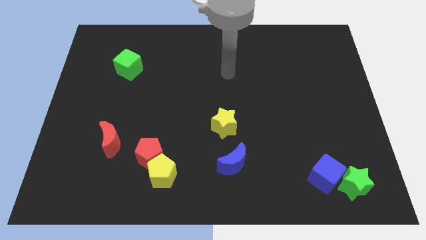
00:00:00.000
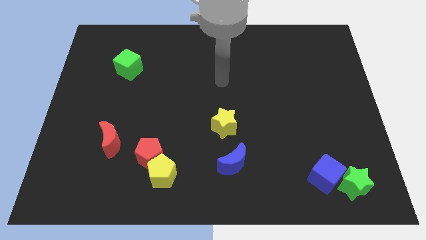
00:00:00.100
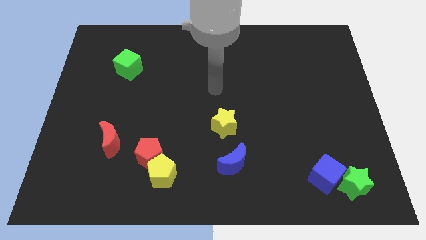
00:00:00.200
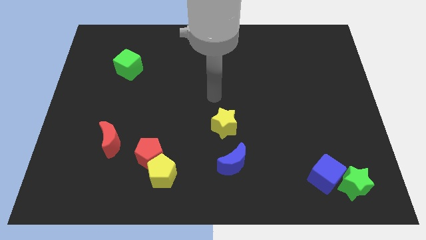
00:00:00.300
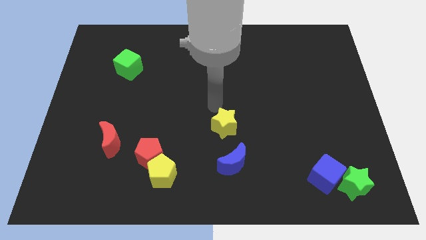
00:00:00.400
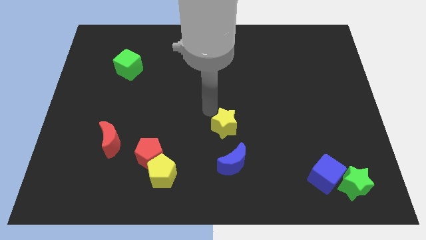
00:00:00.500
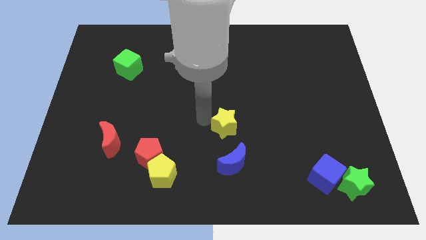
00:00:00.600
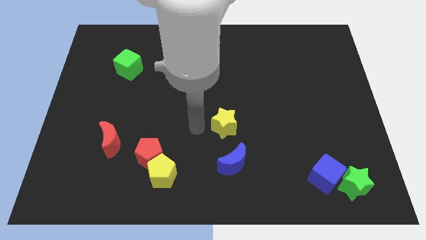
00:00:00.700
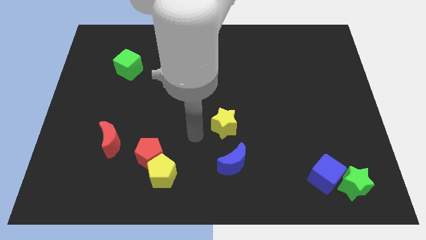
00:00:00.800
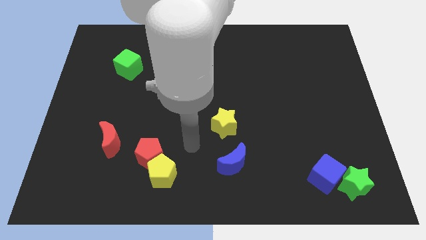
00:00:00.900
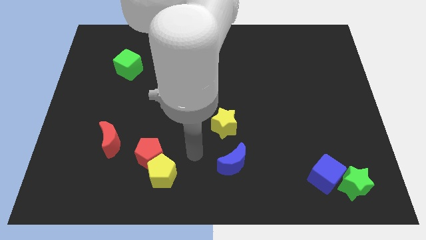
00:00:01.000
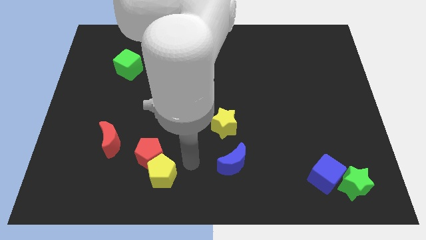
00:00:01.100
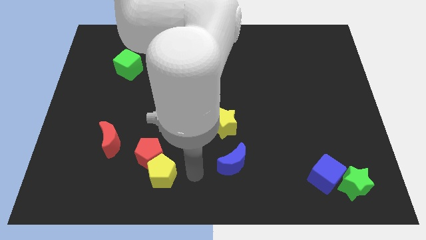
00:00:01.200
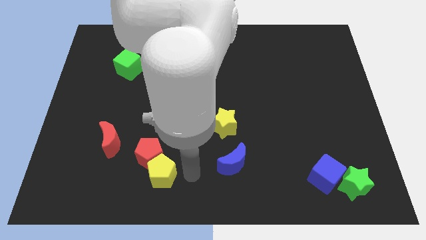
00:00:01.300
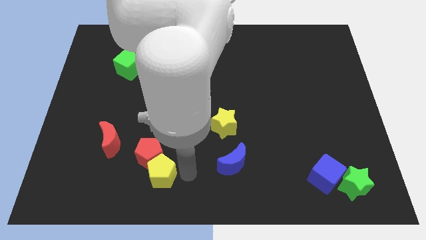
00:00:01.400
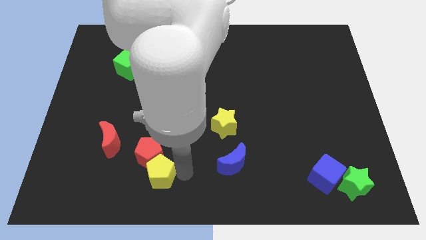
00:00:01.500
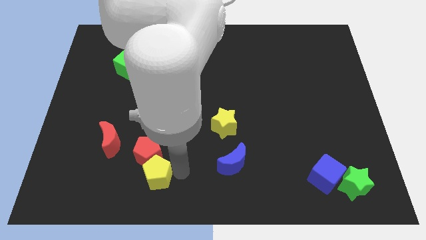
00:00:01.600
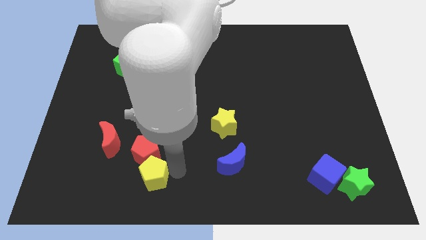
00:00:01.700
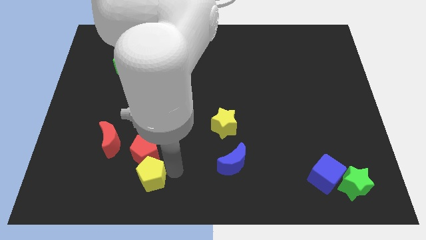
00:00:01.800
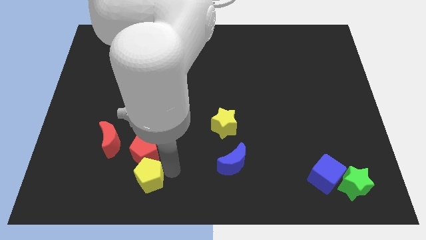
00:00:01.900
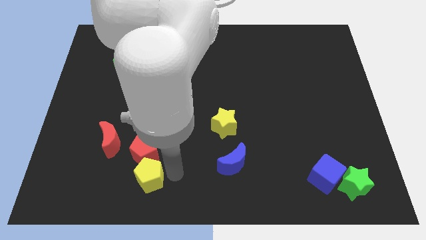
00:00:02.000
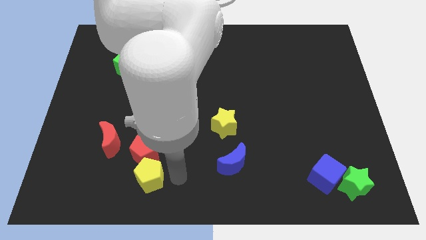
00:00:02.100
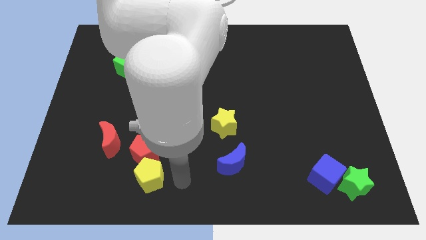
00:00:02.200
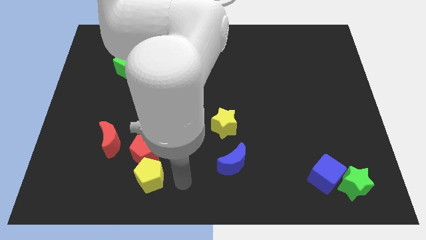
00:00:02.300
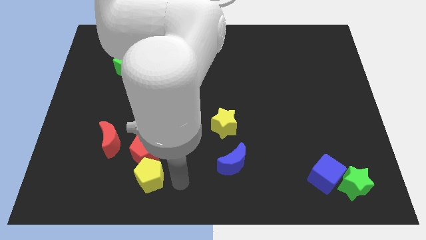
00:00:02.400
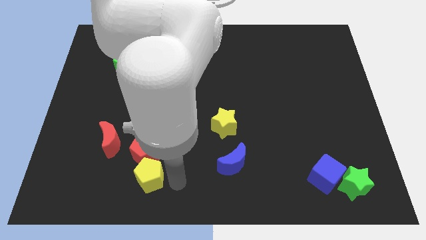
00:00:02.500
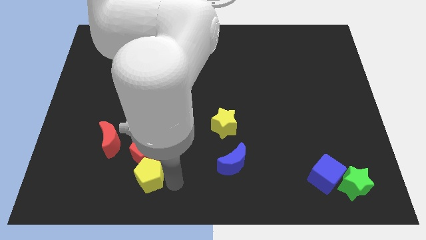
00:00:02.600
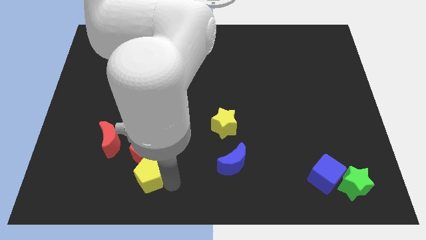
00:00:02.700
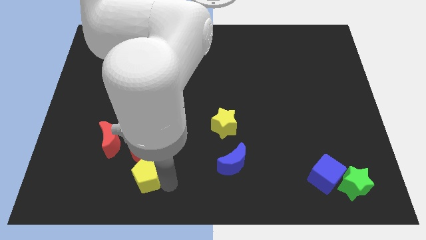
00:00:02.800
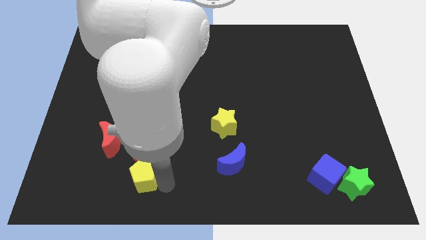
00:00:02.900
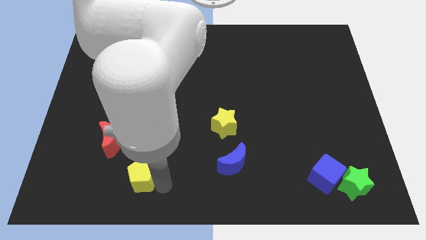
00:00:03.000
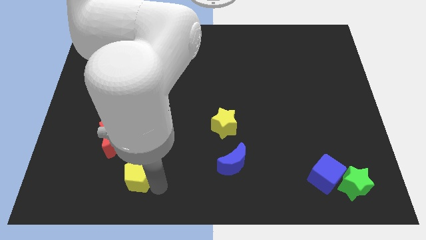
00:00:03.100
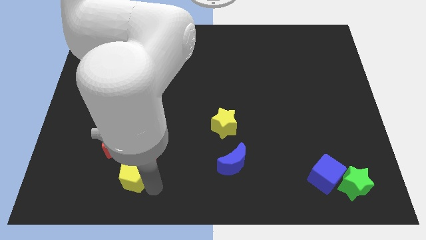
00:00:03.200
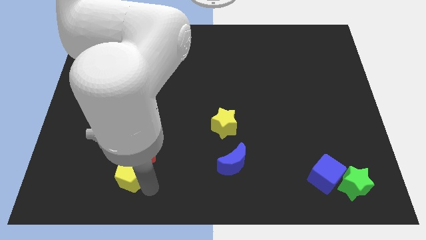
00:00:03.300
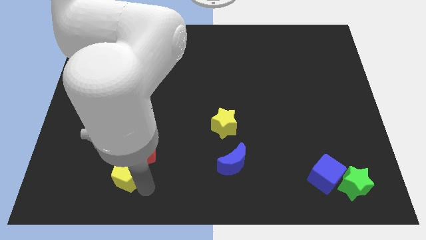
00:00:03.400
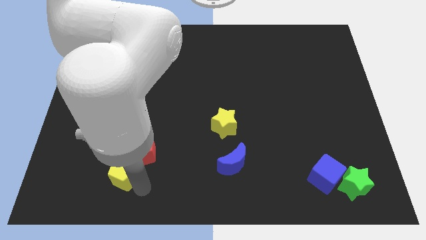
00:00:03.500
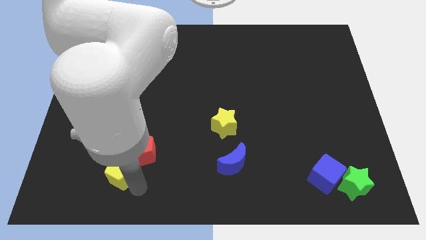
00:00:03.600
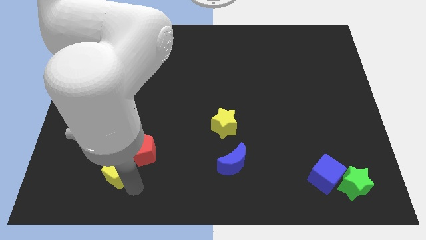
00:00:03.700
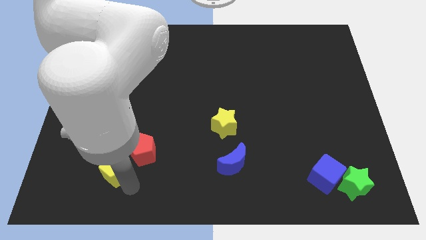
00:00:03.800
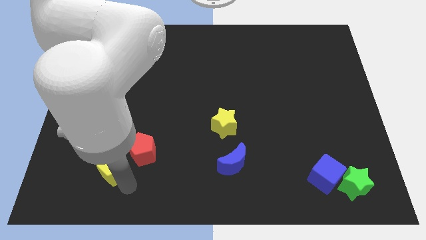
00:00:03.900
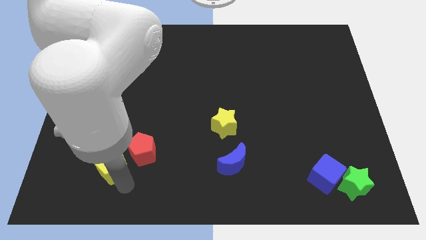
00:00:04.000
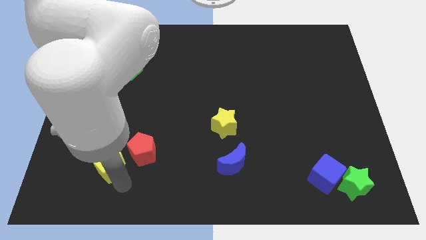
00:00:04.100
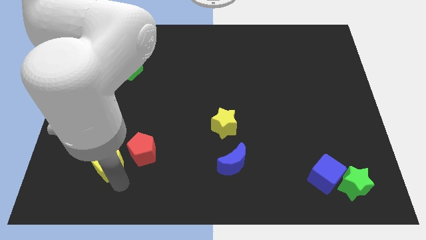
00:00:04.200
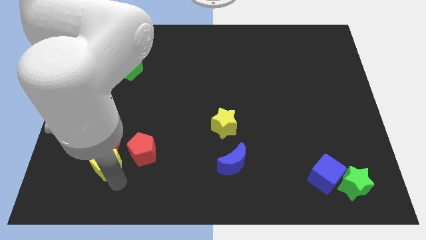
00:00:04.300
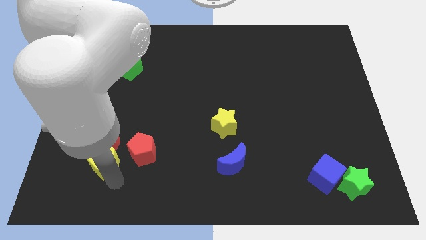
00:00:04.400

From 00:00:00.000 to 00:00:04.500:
put the yellow pentagon towards the red moon

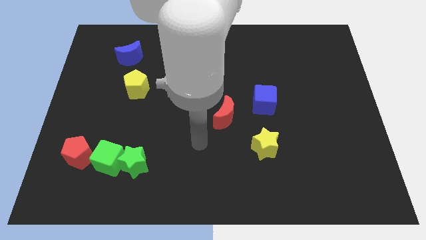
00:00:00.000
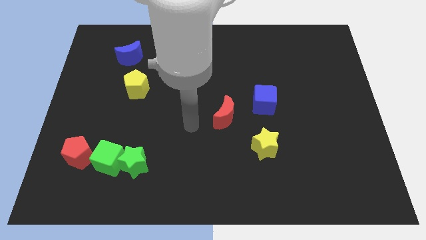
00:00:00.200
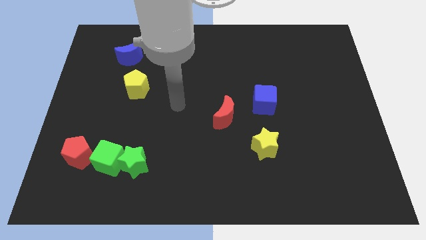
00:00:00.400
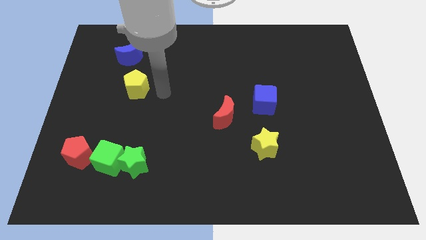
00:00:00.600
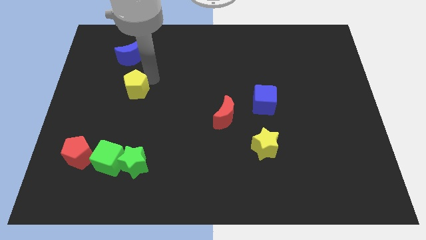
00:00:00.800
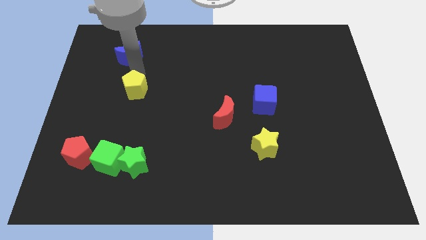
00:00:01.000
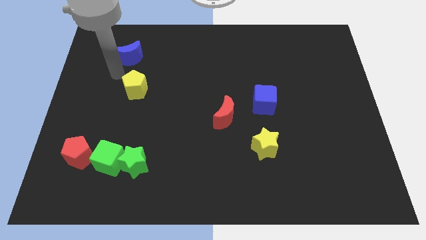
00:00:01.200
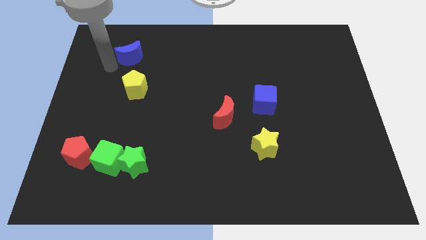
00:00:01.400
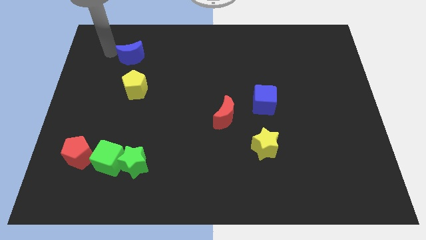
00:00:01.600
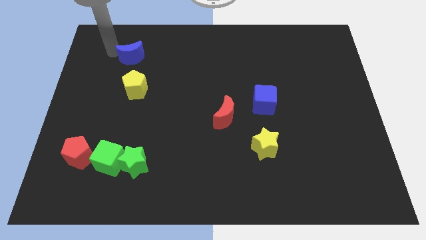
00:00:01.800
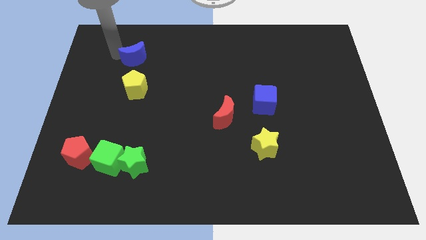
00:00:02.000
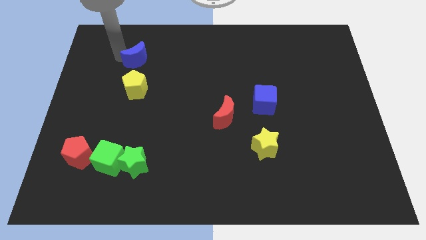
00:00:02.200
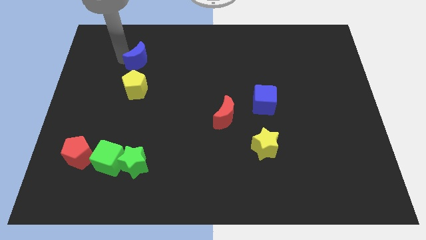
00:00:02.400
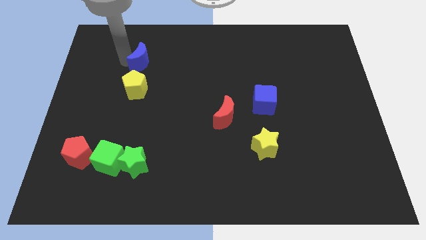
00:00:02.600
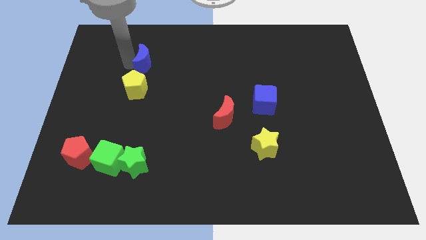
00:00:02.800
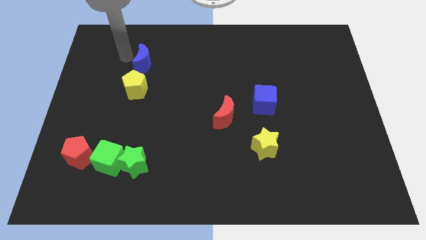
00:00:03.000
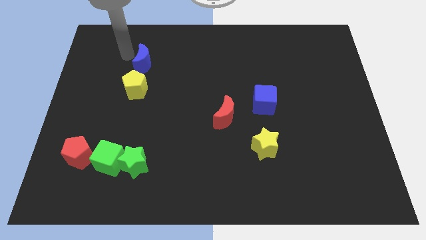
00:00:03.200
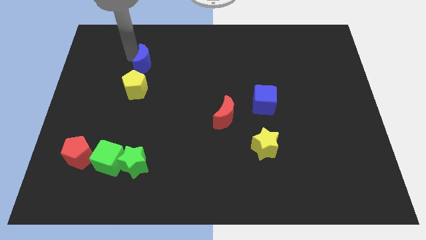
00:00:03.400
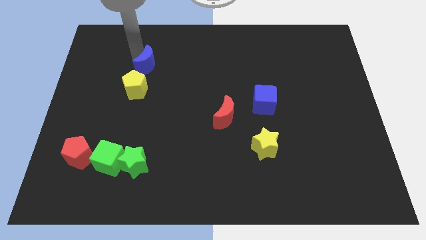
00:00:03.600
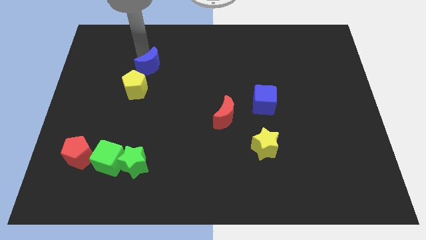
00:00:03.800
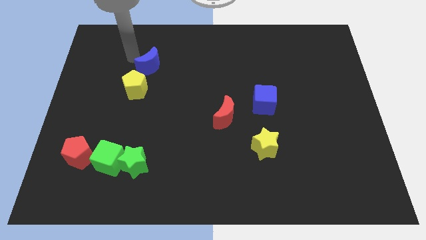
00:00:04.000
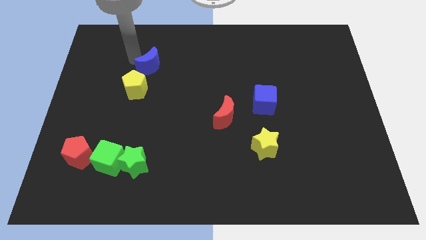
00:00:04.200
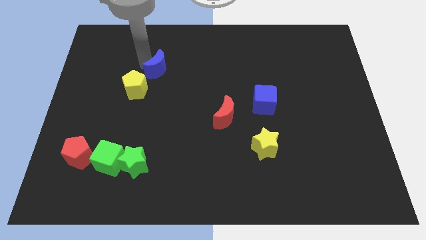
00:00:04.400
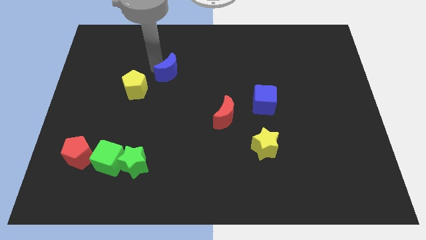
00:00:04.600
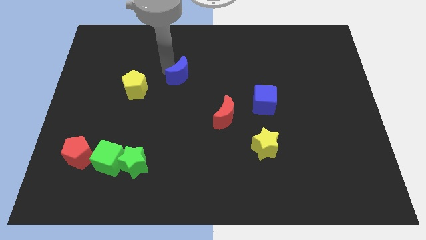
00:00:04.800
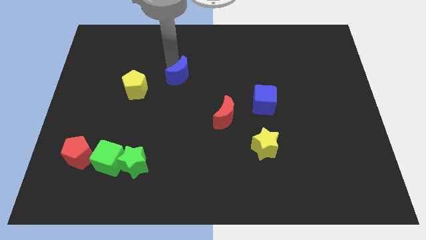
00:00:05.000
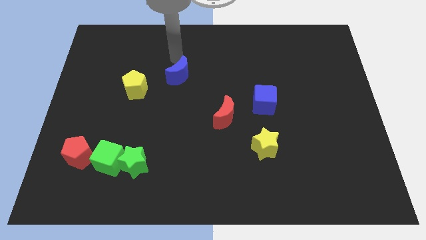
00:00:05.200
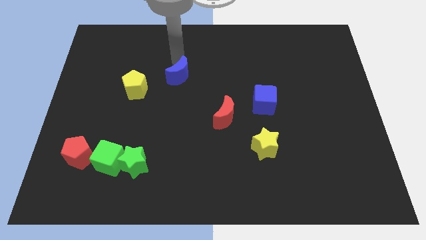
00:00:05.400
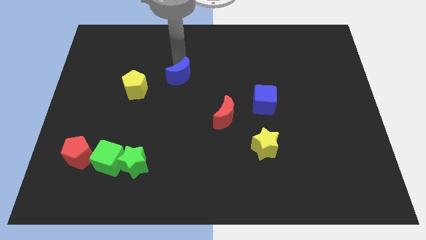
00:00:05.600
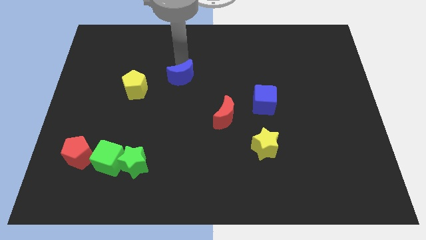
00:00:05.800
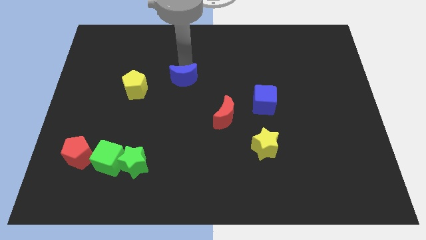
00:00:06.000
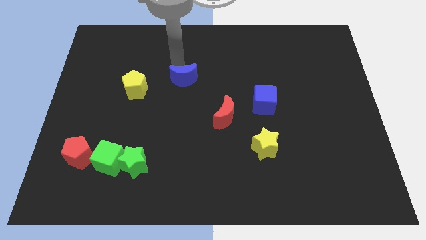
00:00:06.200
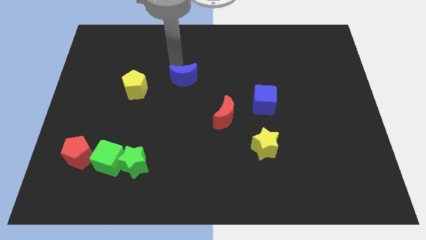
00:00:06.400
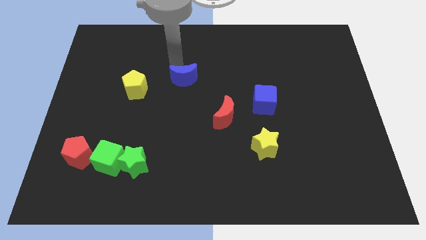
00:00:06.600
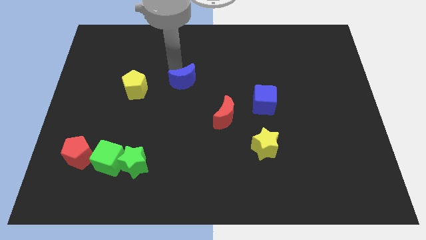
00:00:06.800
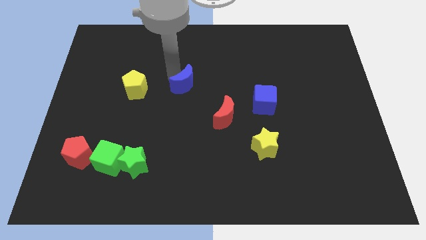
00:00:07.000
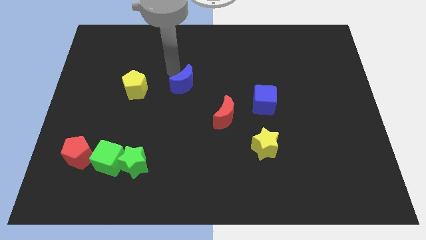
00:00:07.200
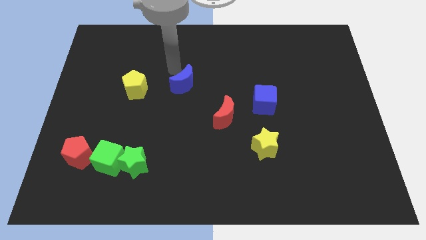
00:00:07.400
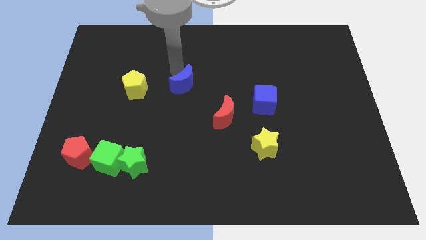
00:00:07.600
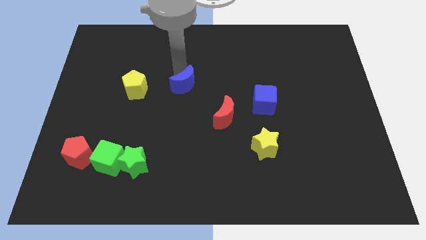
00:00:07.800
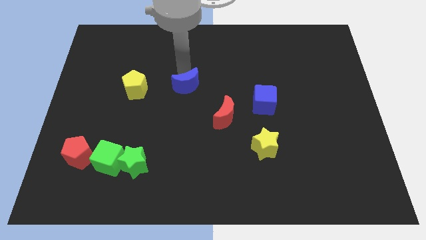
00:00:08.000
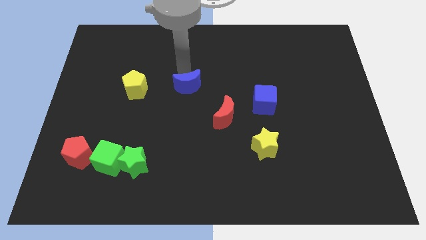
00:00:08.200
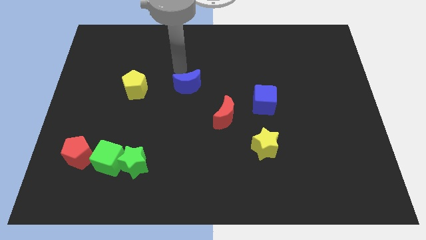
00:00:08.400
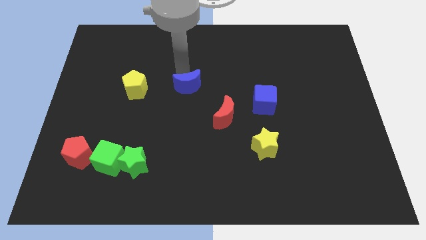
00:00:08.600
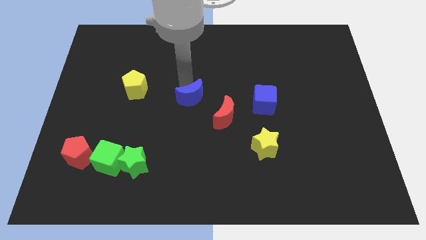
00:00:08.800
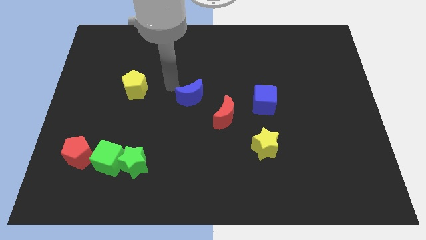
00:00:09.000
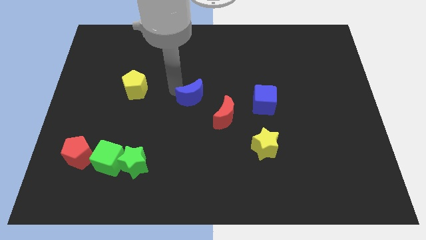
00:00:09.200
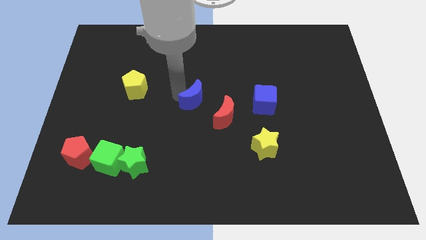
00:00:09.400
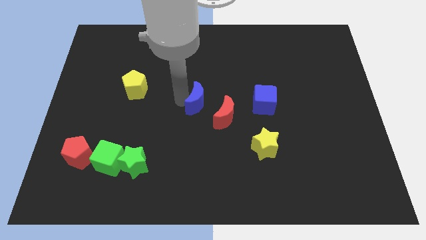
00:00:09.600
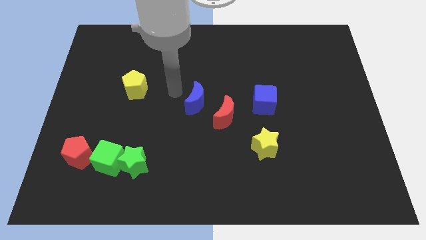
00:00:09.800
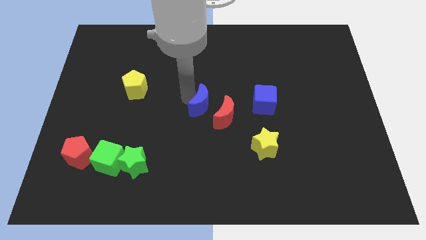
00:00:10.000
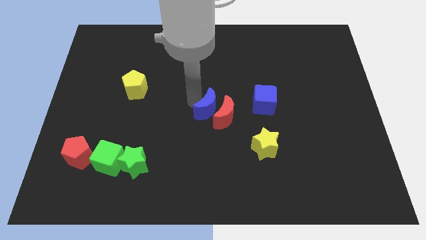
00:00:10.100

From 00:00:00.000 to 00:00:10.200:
slide the blue moon towards the red moon
